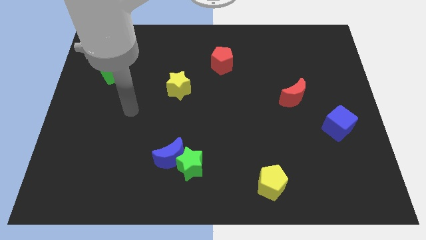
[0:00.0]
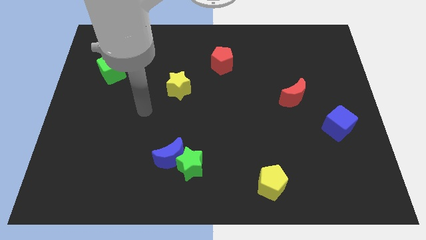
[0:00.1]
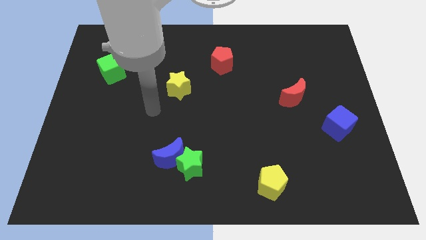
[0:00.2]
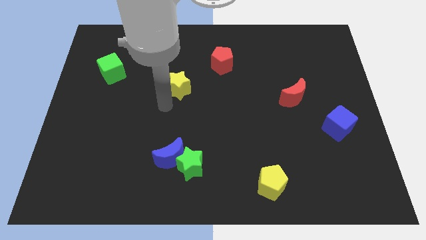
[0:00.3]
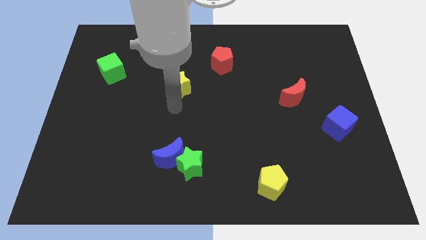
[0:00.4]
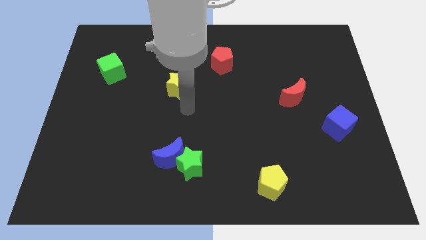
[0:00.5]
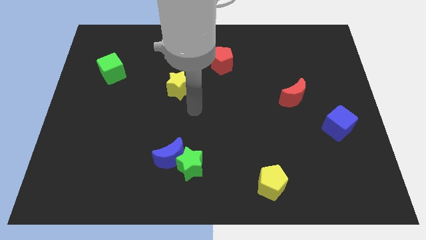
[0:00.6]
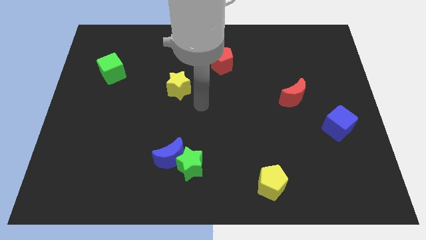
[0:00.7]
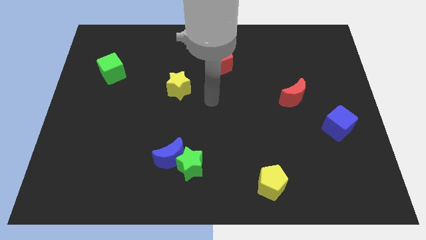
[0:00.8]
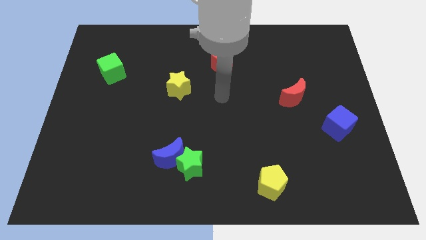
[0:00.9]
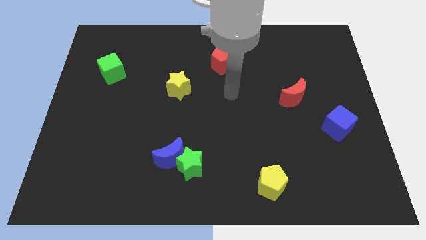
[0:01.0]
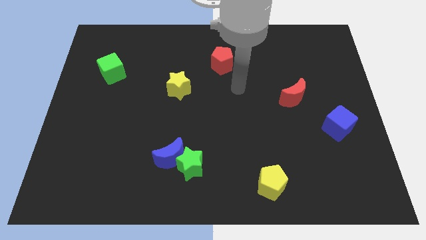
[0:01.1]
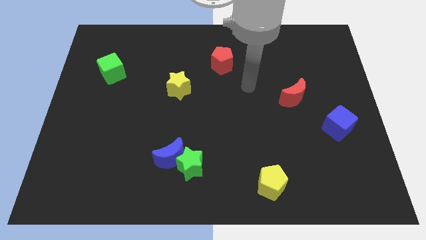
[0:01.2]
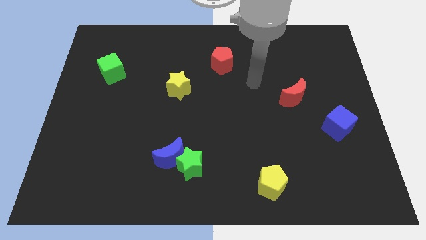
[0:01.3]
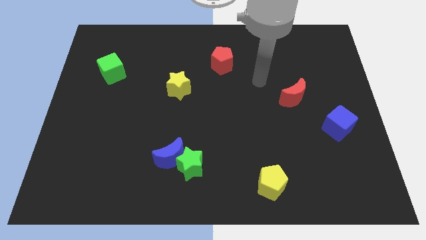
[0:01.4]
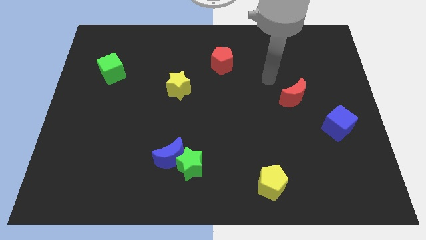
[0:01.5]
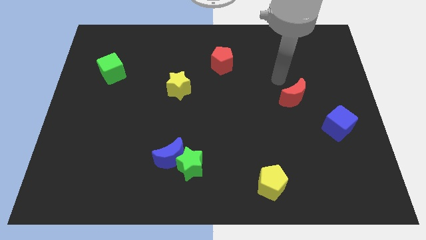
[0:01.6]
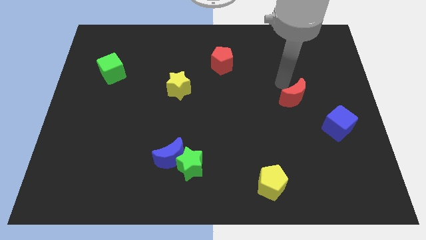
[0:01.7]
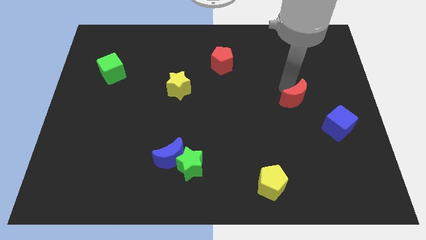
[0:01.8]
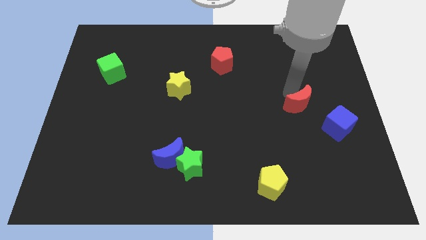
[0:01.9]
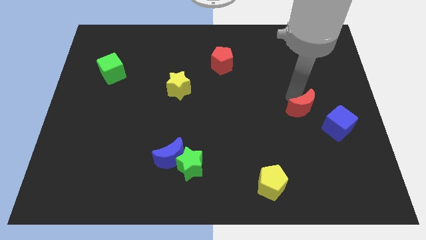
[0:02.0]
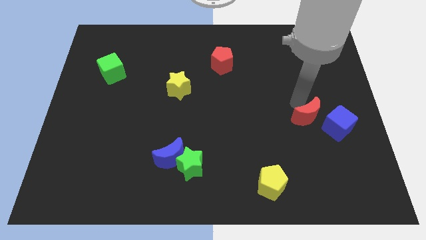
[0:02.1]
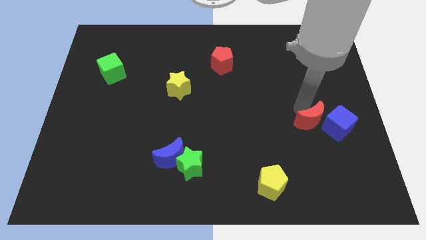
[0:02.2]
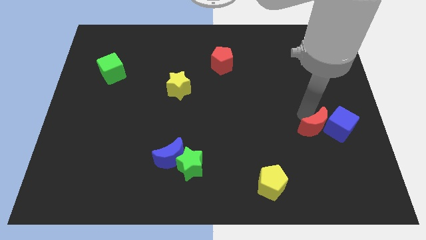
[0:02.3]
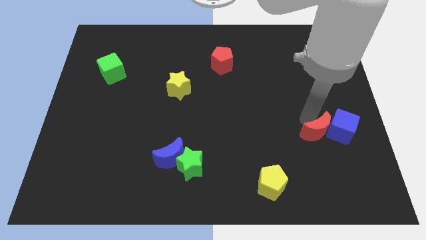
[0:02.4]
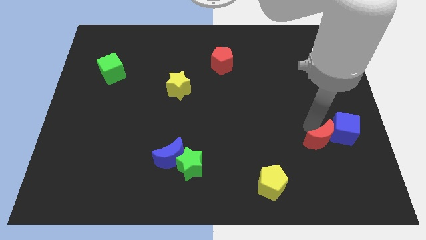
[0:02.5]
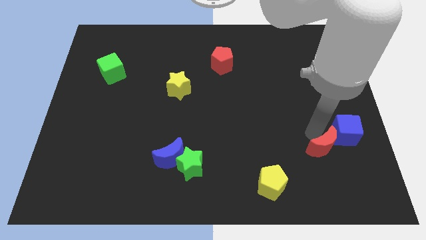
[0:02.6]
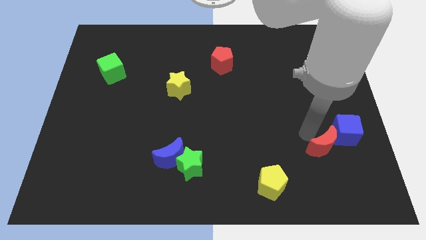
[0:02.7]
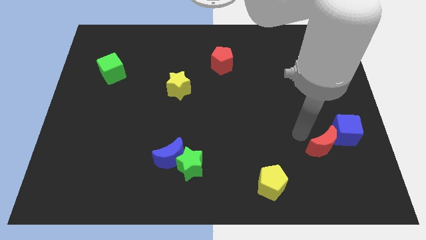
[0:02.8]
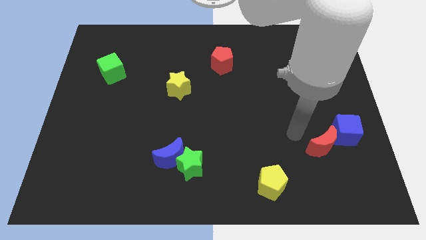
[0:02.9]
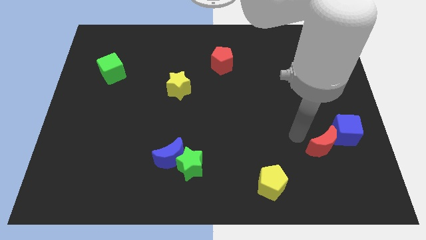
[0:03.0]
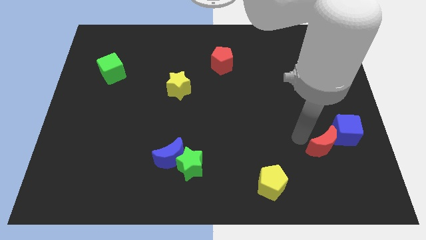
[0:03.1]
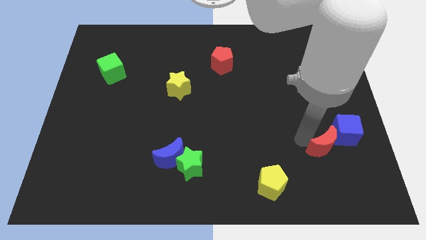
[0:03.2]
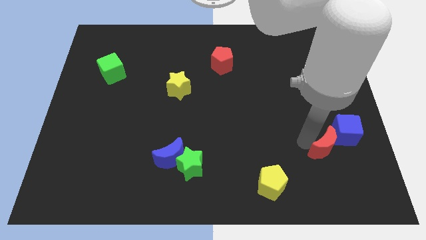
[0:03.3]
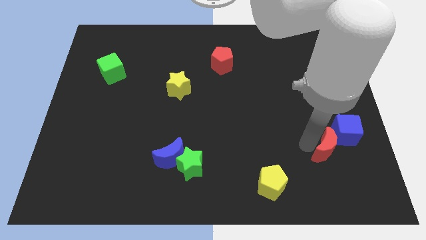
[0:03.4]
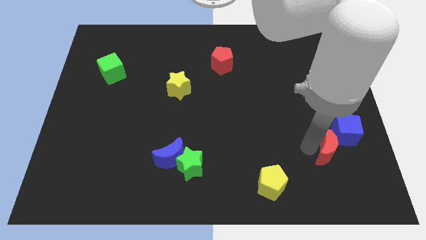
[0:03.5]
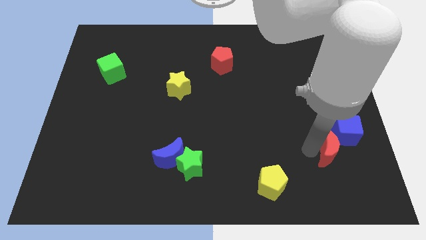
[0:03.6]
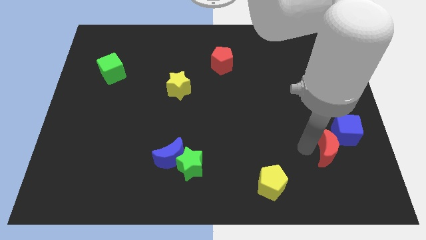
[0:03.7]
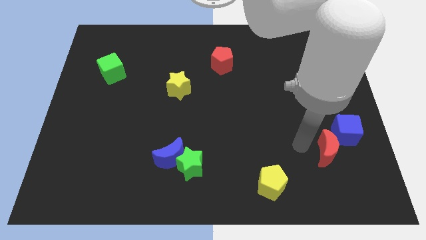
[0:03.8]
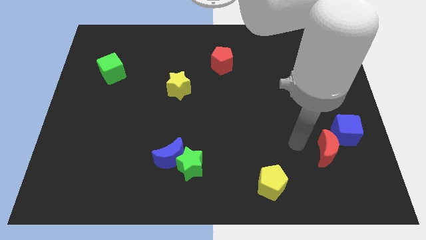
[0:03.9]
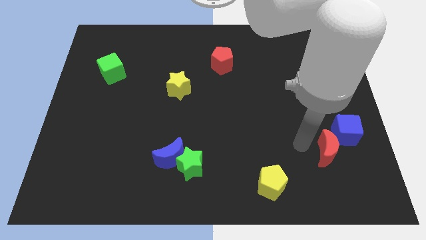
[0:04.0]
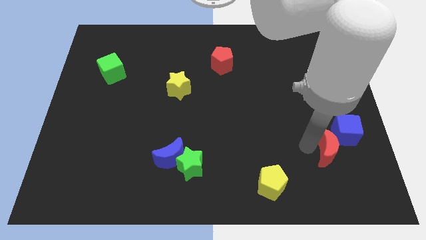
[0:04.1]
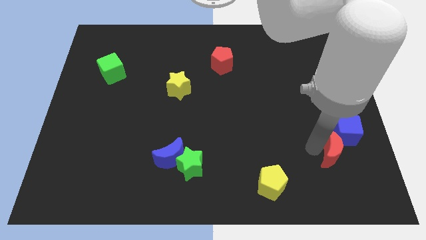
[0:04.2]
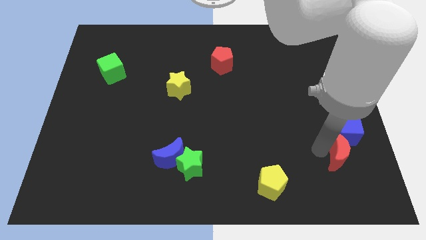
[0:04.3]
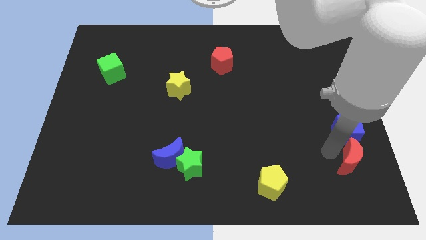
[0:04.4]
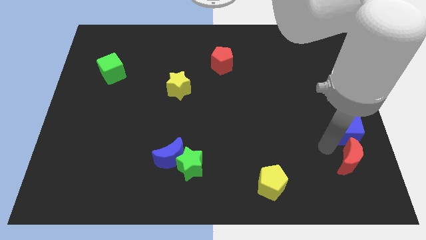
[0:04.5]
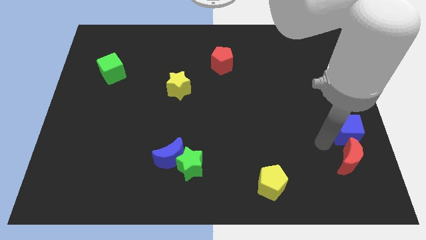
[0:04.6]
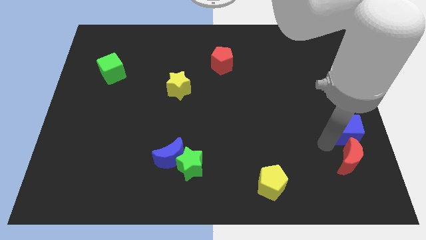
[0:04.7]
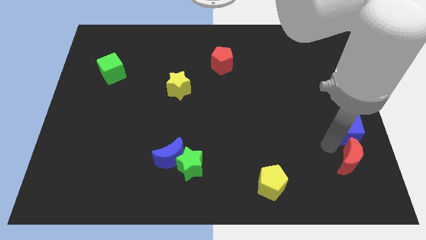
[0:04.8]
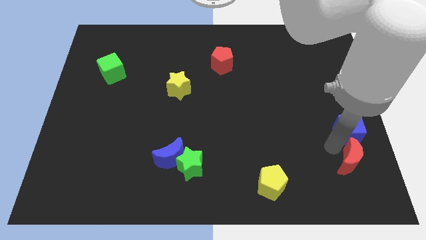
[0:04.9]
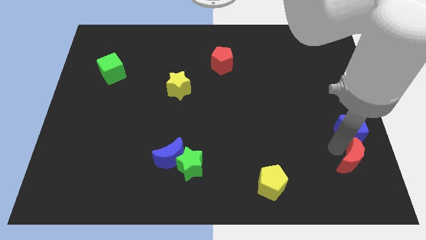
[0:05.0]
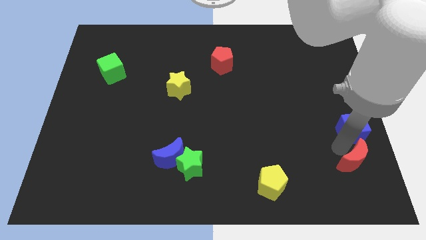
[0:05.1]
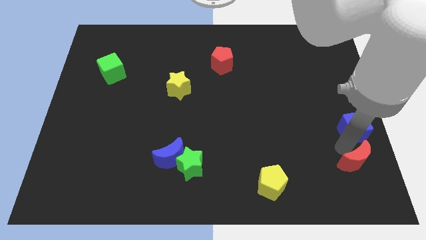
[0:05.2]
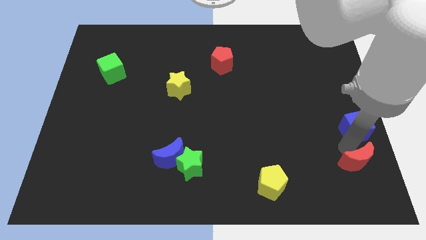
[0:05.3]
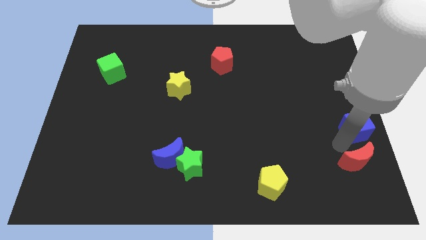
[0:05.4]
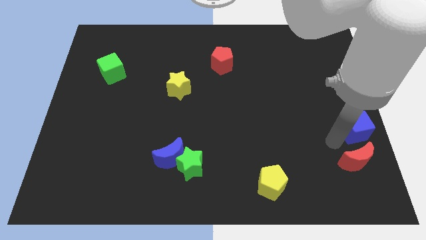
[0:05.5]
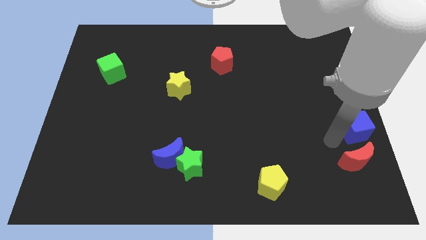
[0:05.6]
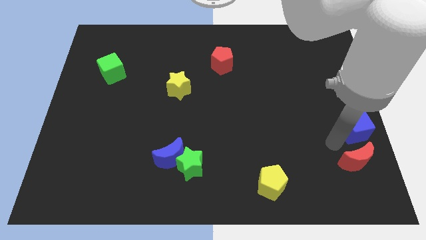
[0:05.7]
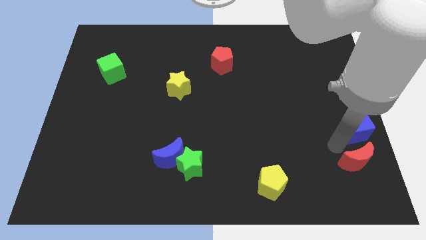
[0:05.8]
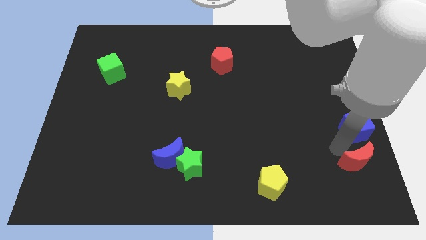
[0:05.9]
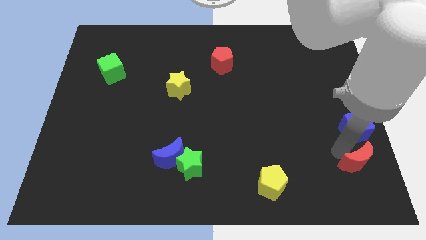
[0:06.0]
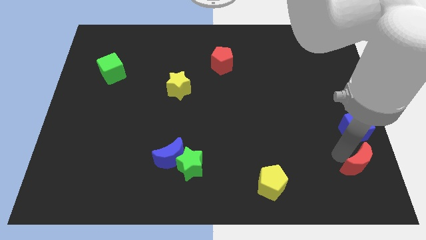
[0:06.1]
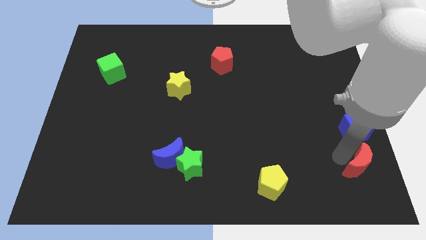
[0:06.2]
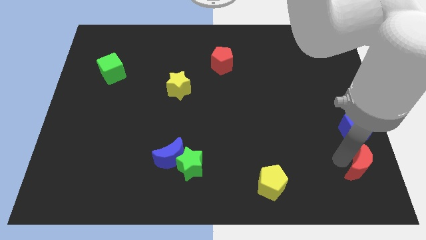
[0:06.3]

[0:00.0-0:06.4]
slide the red moon to the bottom right of the board

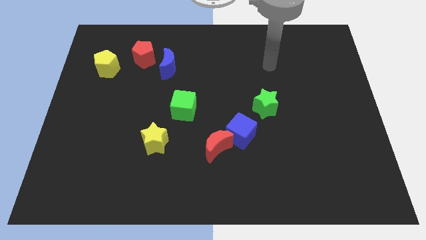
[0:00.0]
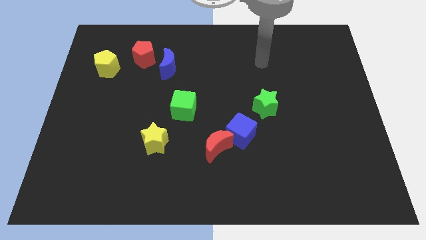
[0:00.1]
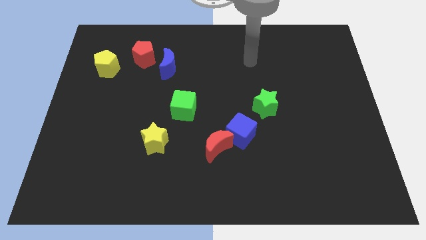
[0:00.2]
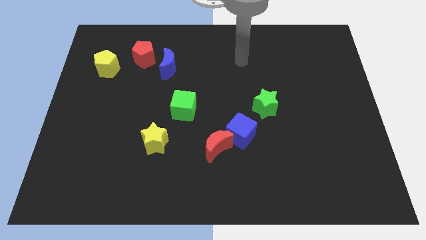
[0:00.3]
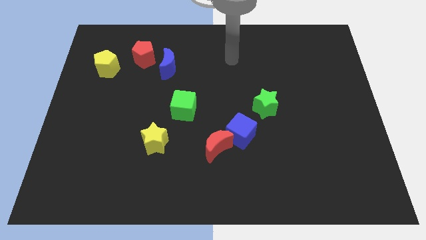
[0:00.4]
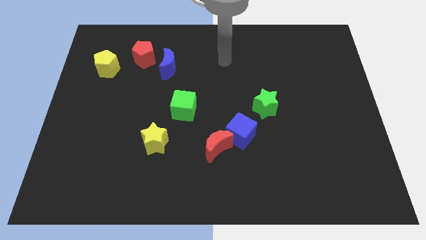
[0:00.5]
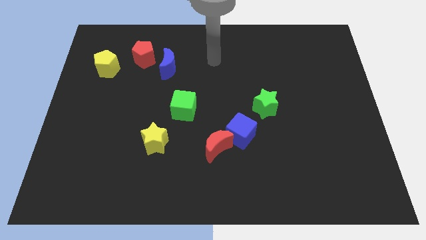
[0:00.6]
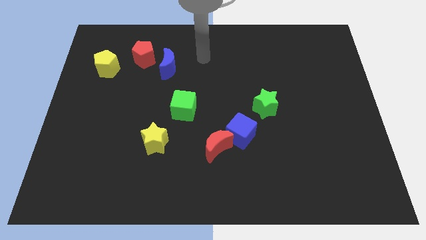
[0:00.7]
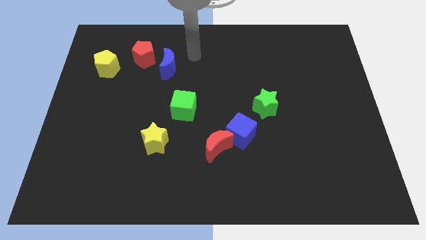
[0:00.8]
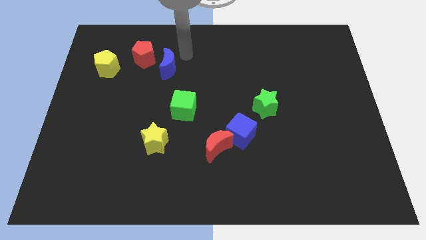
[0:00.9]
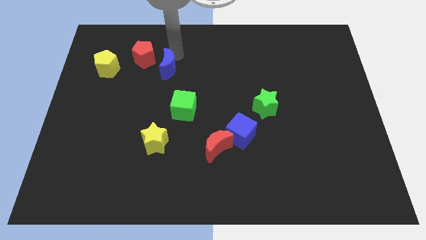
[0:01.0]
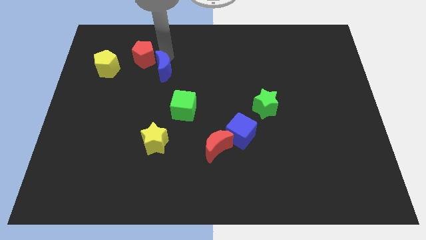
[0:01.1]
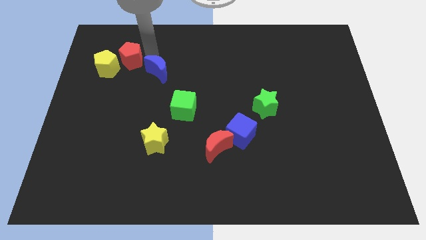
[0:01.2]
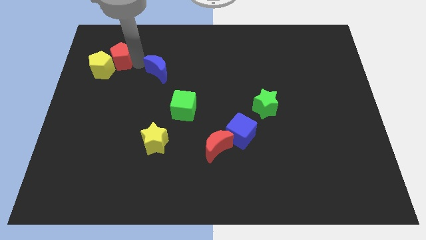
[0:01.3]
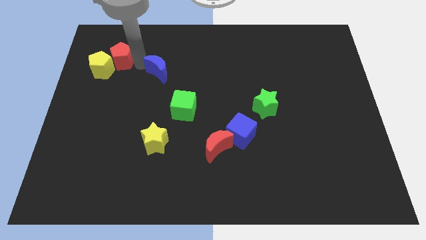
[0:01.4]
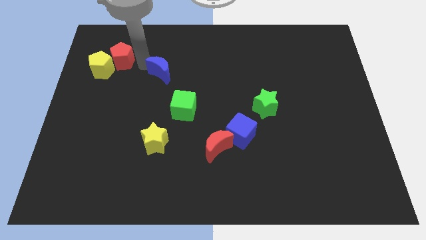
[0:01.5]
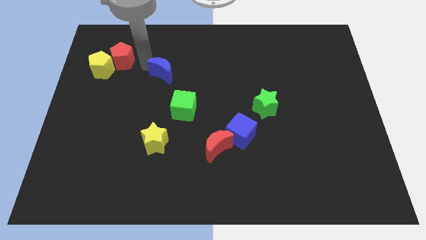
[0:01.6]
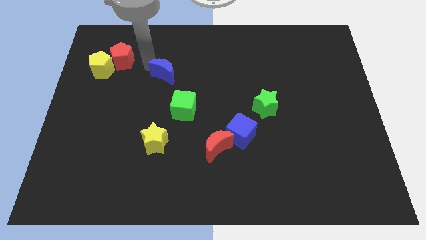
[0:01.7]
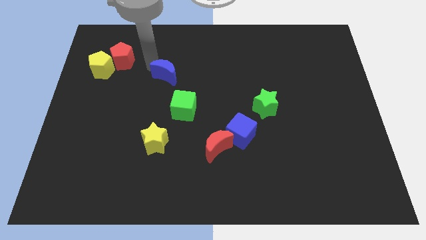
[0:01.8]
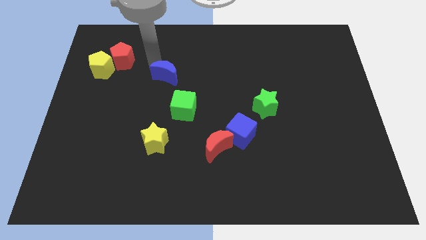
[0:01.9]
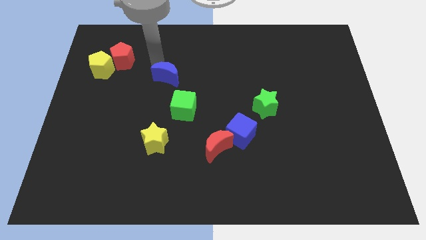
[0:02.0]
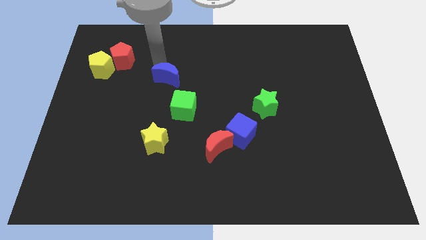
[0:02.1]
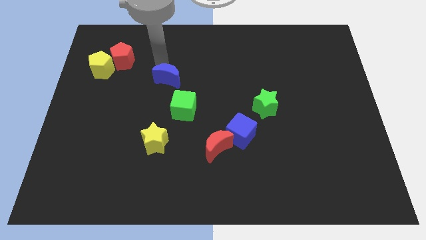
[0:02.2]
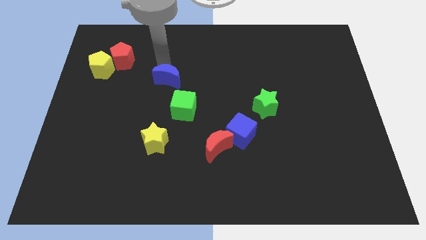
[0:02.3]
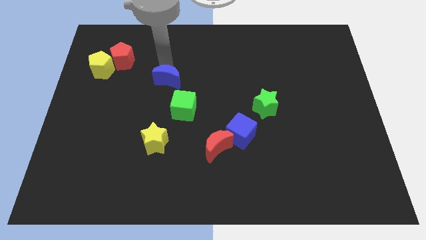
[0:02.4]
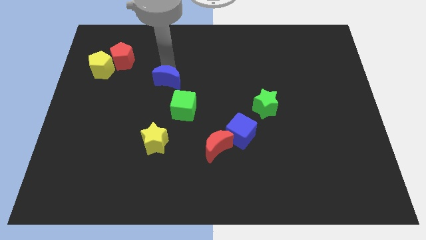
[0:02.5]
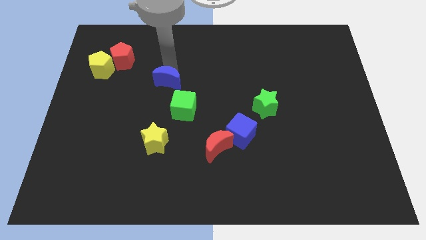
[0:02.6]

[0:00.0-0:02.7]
slide the blue moon to the center of the board
